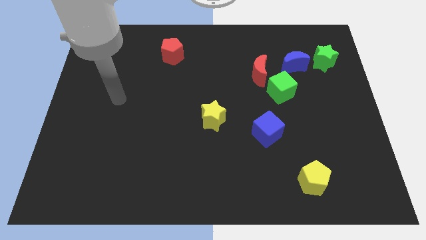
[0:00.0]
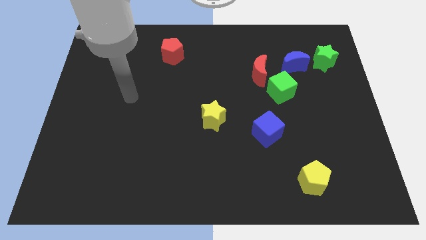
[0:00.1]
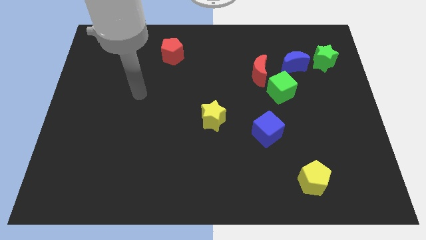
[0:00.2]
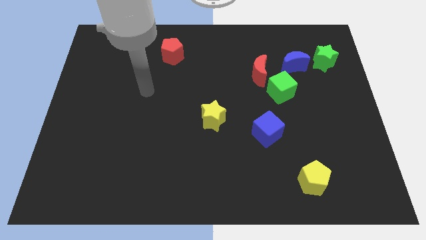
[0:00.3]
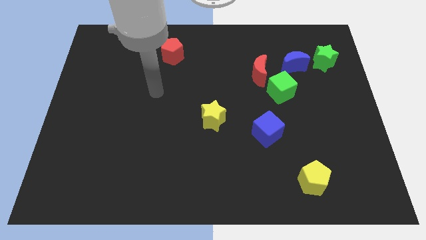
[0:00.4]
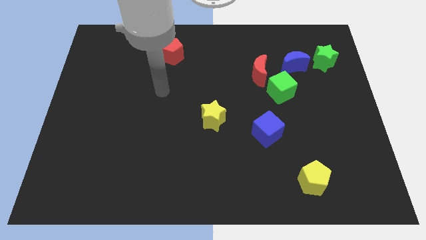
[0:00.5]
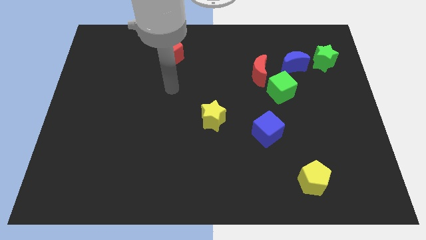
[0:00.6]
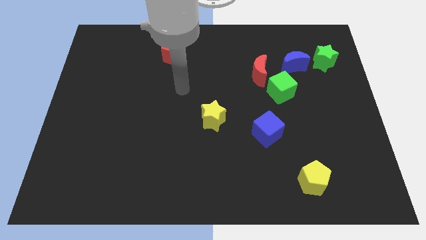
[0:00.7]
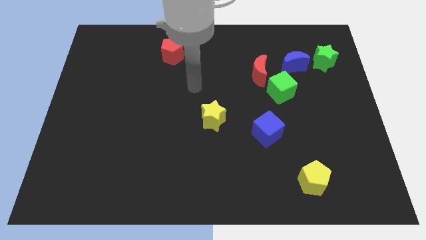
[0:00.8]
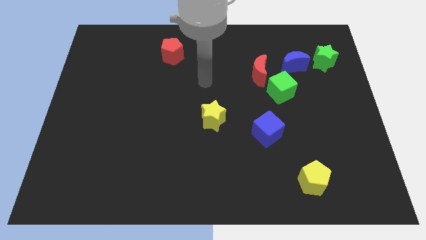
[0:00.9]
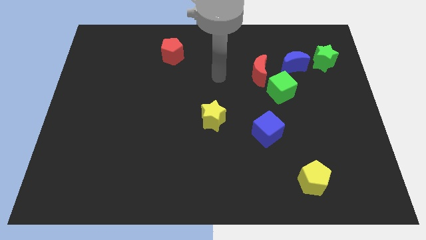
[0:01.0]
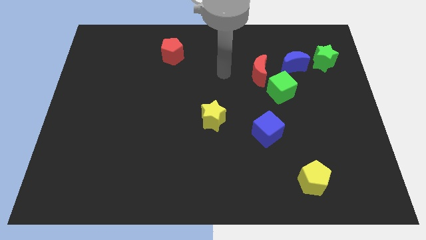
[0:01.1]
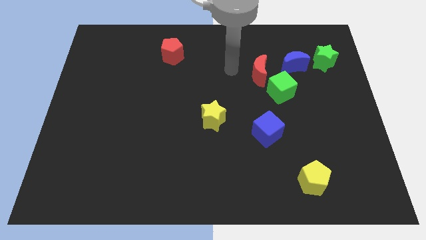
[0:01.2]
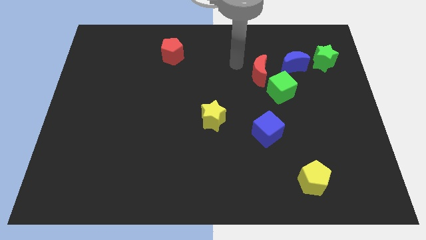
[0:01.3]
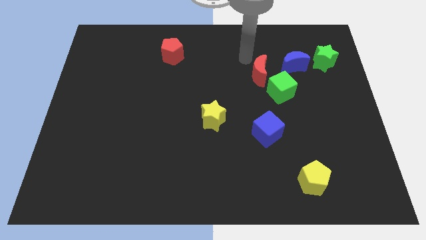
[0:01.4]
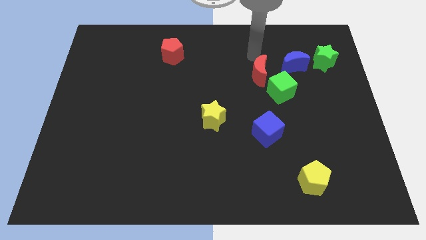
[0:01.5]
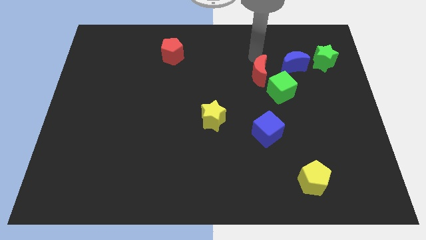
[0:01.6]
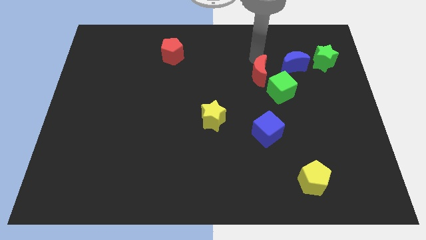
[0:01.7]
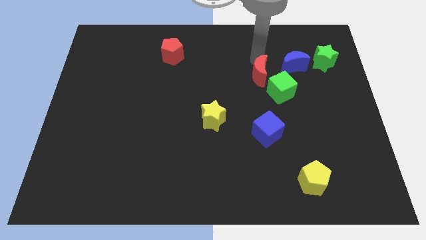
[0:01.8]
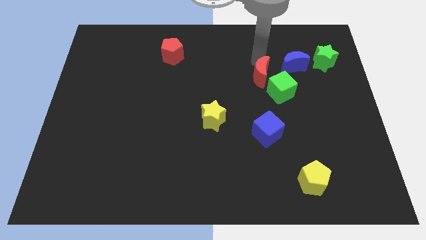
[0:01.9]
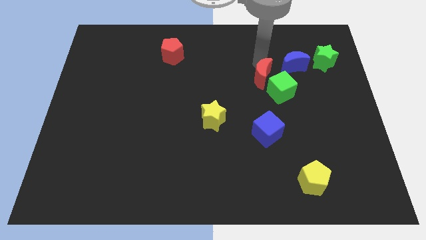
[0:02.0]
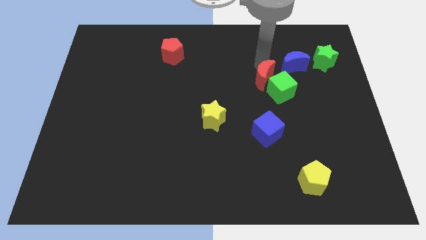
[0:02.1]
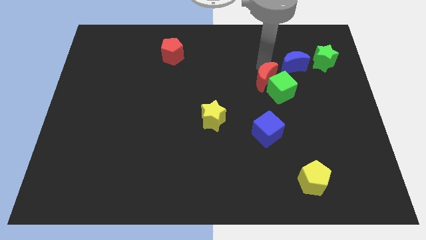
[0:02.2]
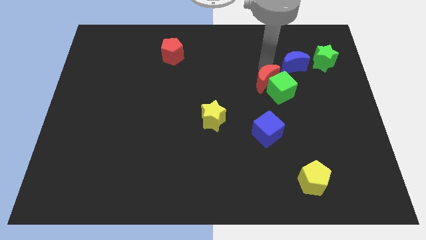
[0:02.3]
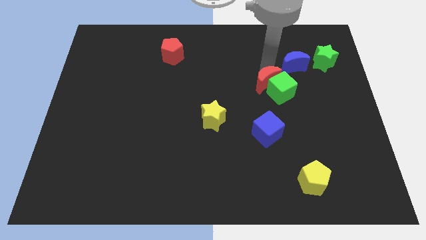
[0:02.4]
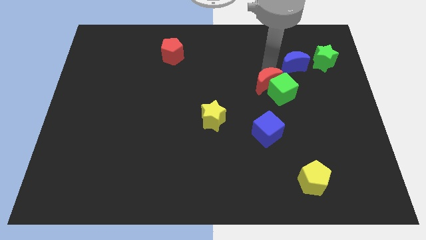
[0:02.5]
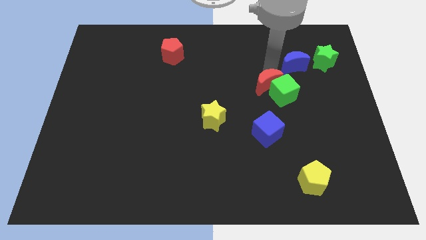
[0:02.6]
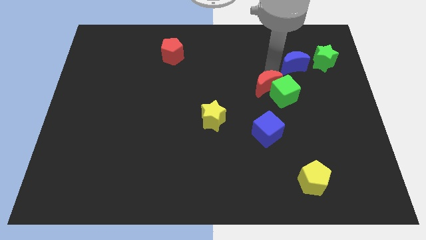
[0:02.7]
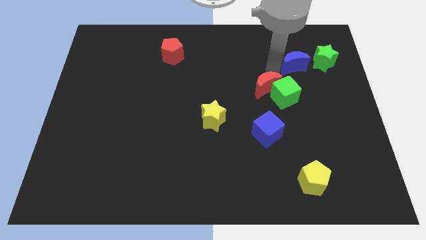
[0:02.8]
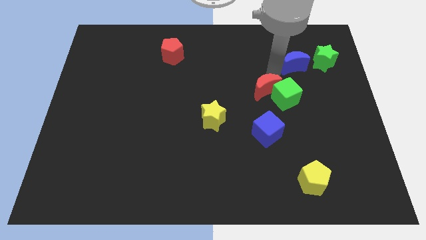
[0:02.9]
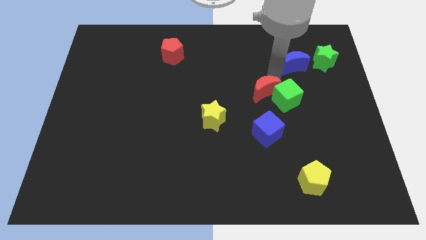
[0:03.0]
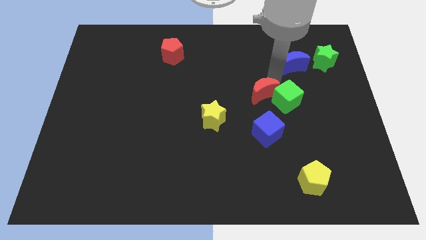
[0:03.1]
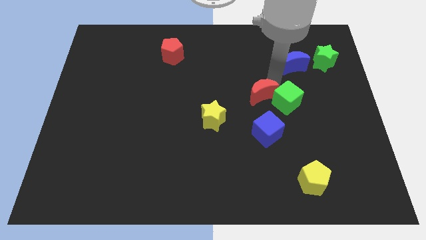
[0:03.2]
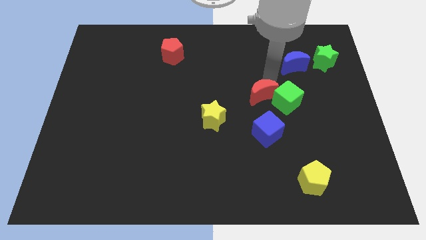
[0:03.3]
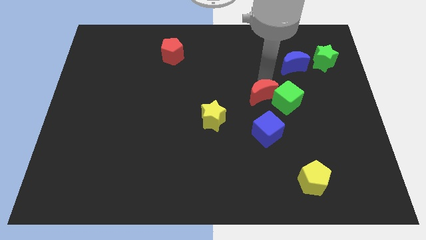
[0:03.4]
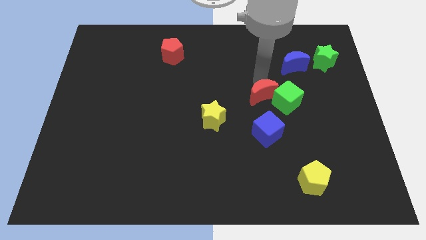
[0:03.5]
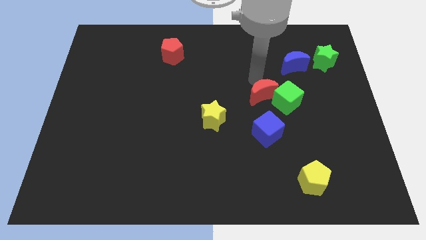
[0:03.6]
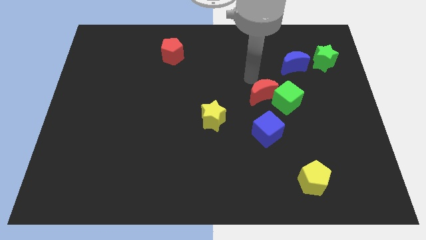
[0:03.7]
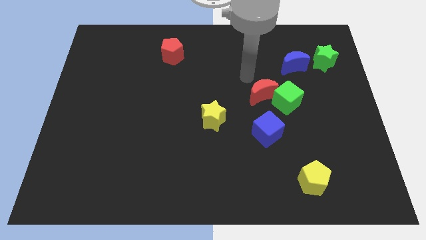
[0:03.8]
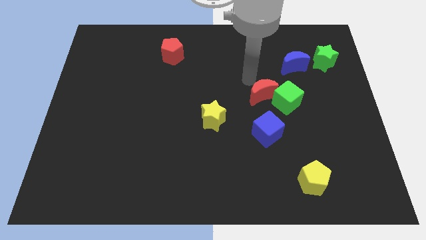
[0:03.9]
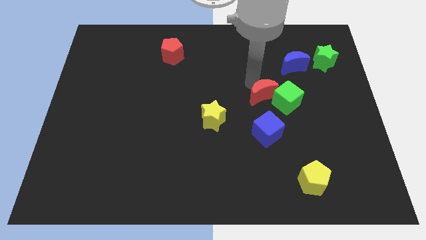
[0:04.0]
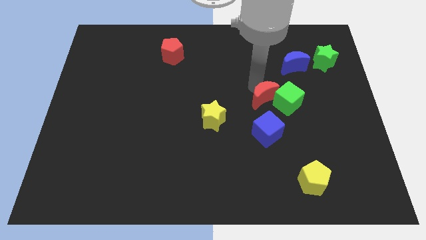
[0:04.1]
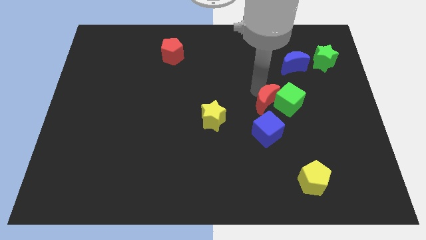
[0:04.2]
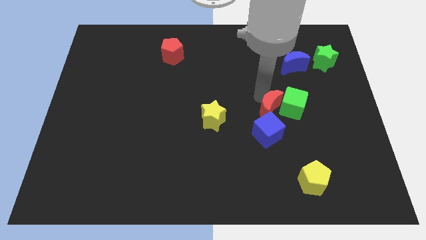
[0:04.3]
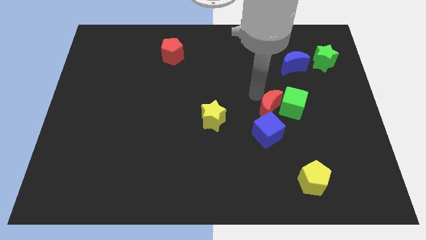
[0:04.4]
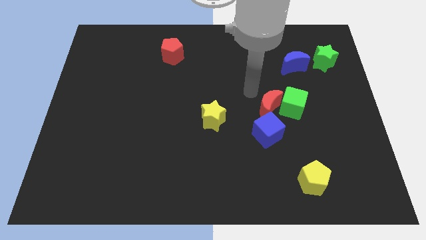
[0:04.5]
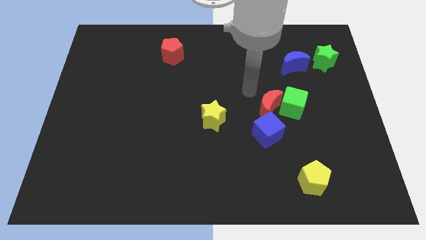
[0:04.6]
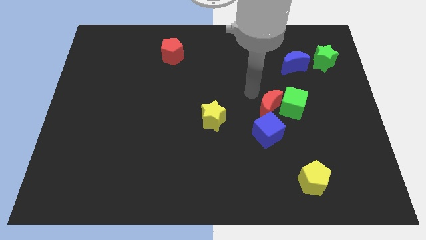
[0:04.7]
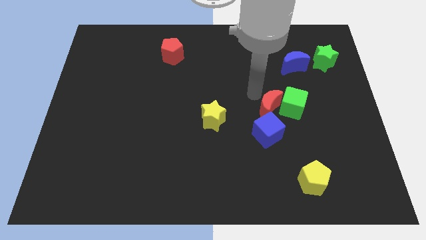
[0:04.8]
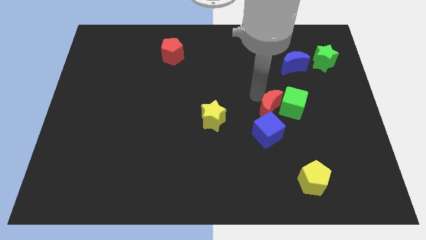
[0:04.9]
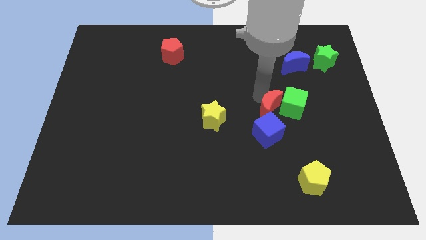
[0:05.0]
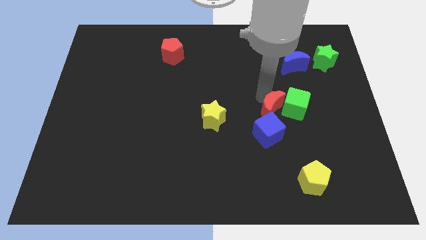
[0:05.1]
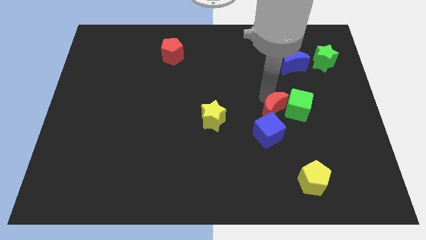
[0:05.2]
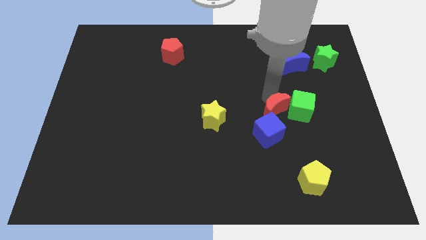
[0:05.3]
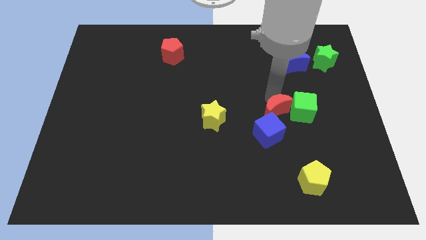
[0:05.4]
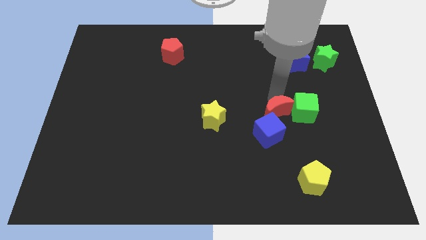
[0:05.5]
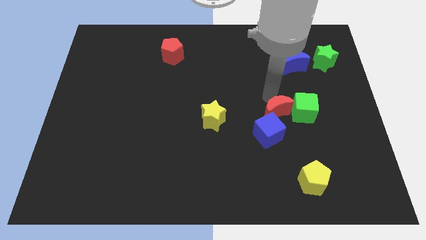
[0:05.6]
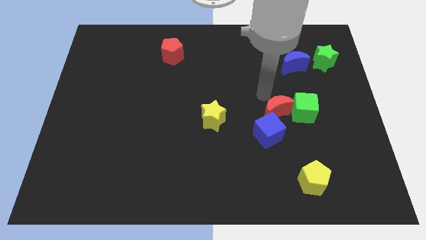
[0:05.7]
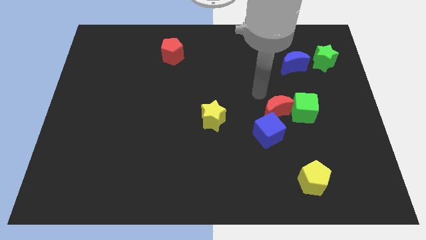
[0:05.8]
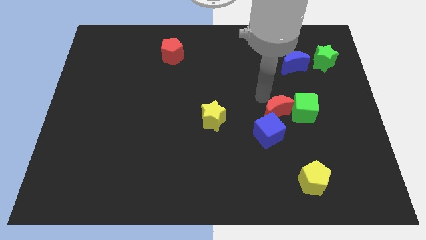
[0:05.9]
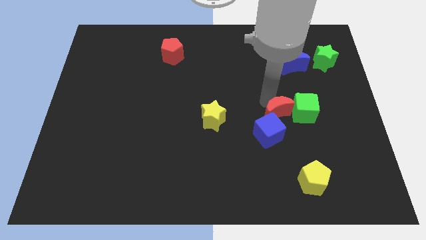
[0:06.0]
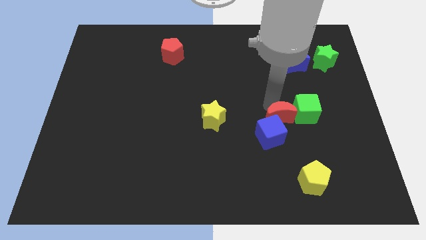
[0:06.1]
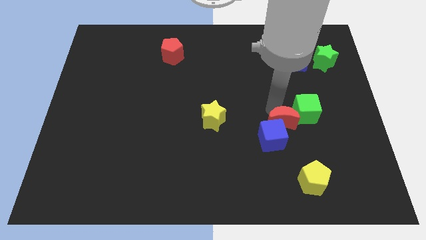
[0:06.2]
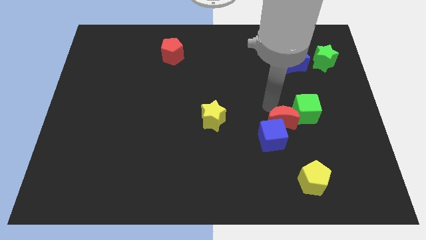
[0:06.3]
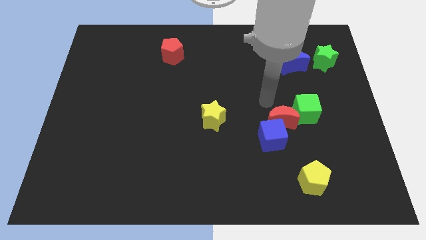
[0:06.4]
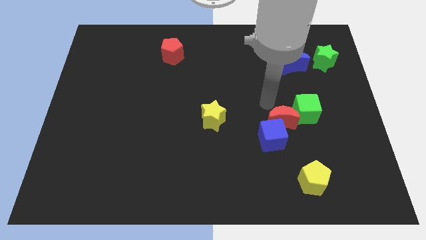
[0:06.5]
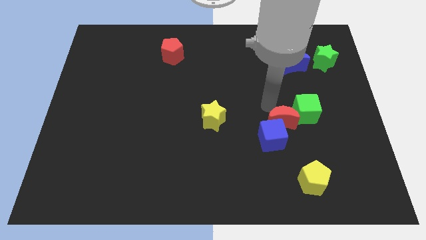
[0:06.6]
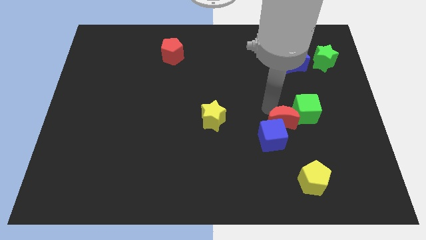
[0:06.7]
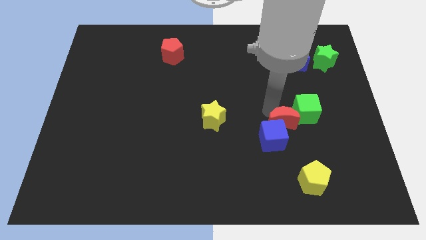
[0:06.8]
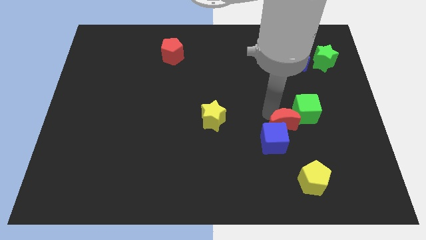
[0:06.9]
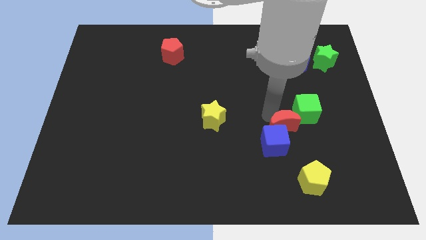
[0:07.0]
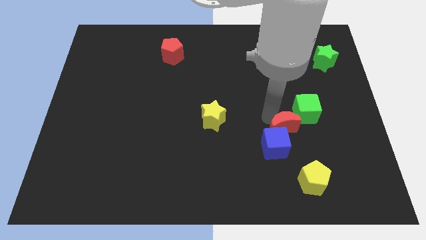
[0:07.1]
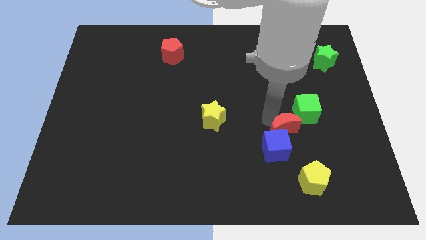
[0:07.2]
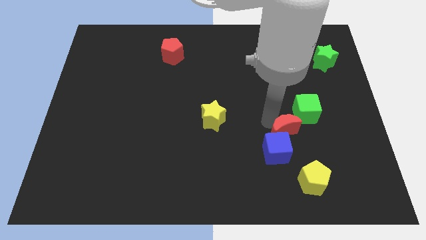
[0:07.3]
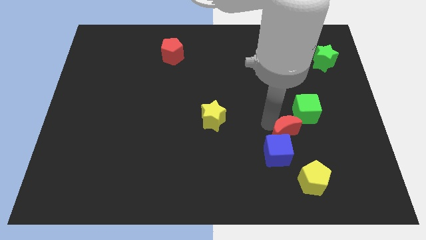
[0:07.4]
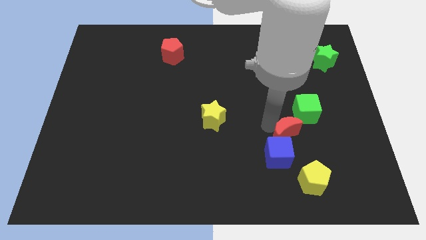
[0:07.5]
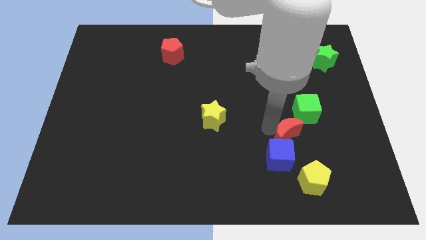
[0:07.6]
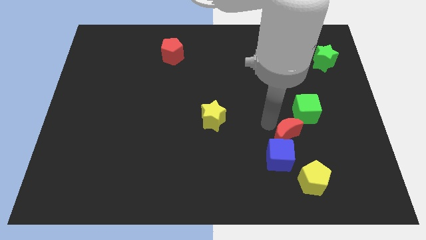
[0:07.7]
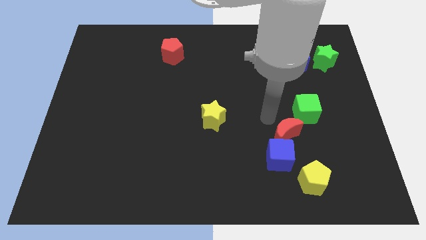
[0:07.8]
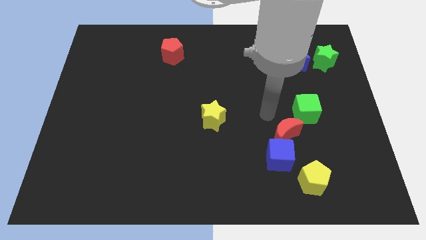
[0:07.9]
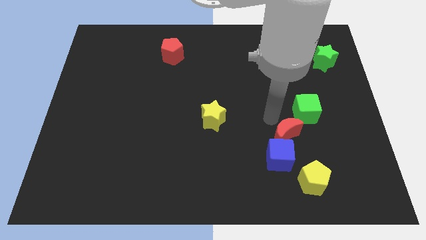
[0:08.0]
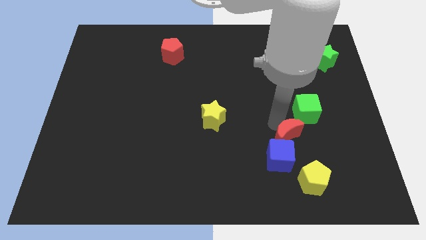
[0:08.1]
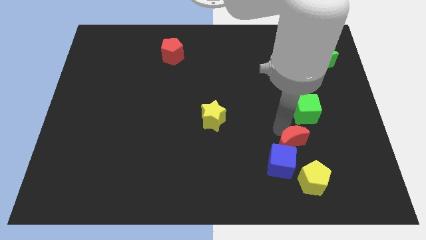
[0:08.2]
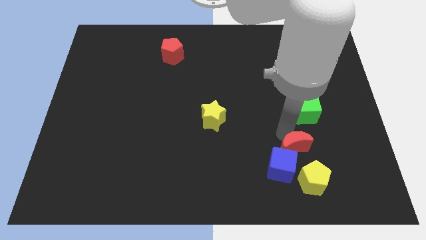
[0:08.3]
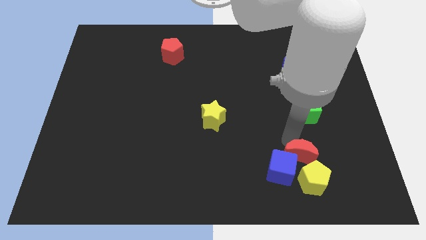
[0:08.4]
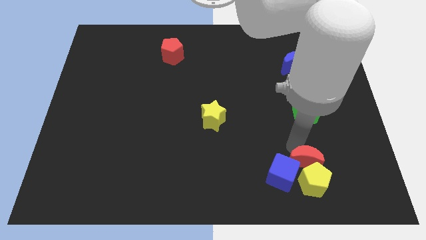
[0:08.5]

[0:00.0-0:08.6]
slide the red moon next to the yellow pentagon
